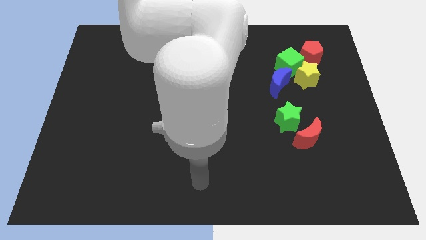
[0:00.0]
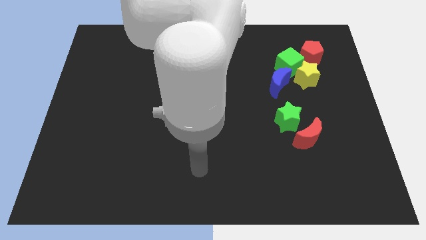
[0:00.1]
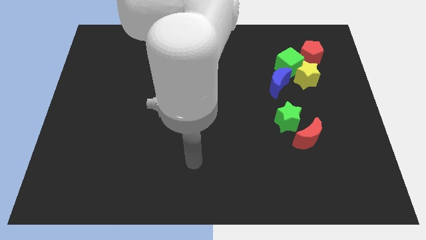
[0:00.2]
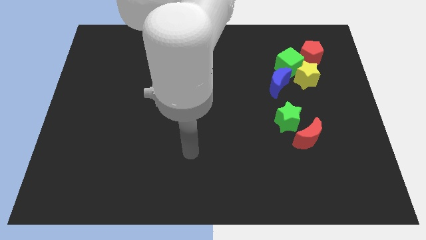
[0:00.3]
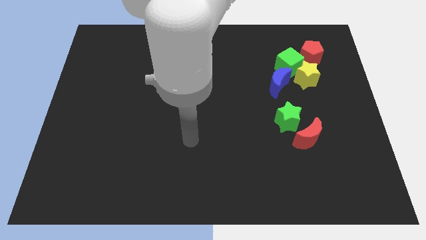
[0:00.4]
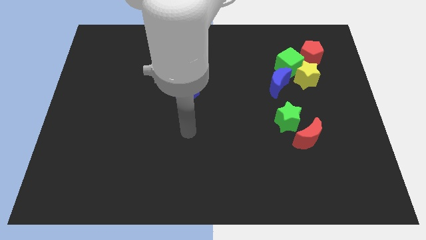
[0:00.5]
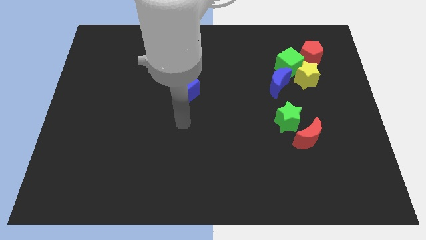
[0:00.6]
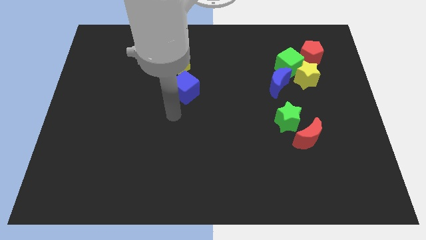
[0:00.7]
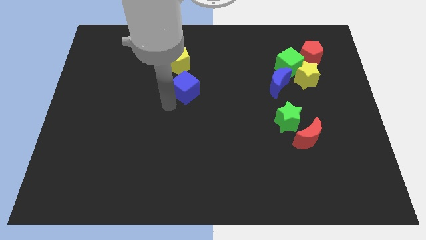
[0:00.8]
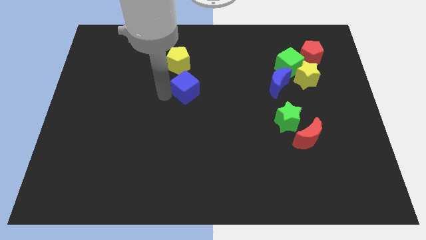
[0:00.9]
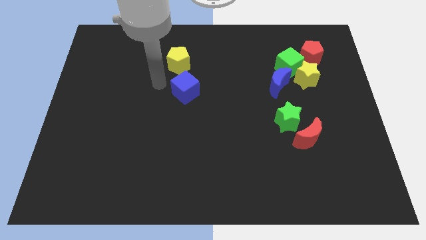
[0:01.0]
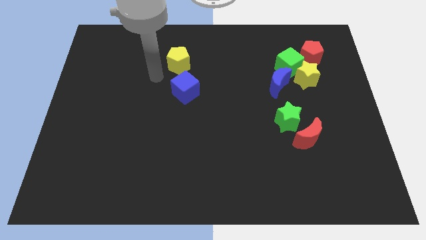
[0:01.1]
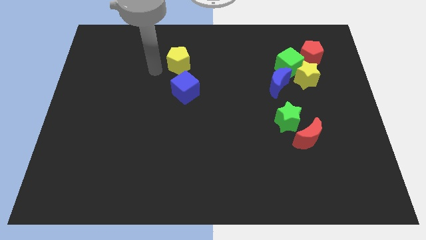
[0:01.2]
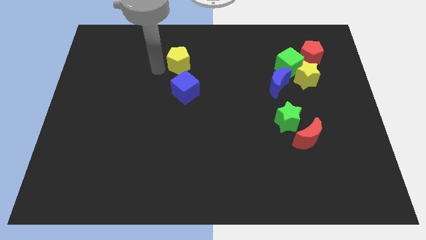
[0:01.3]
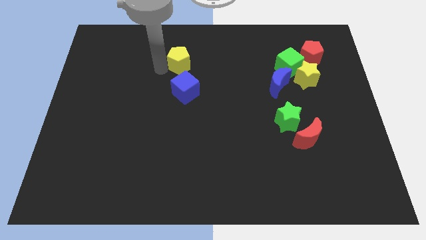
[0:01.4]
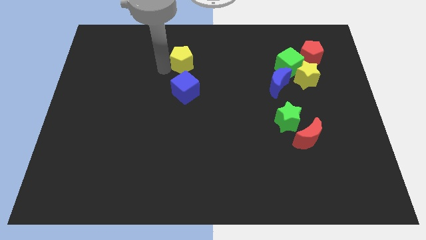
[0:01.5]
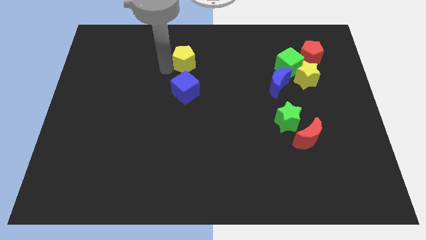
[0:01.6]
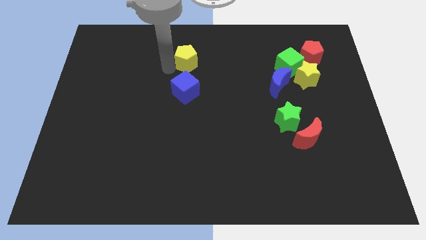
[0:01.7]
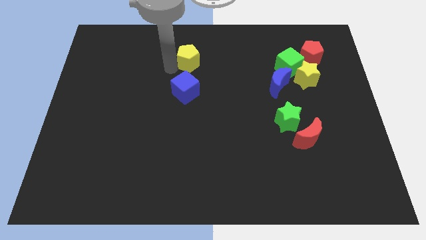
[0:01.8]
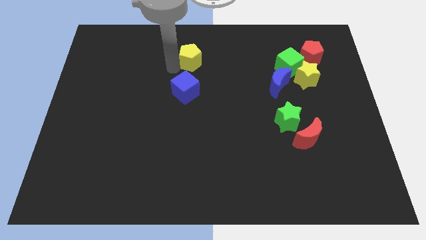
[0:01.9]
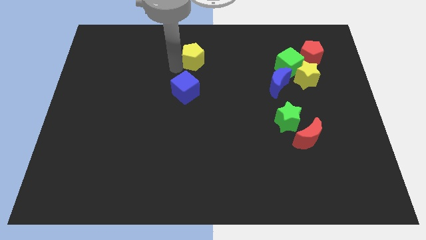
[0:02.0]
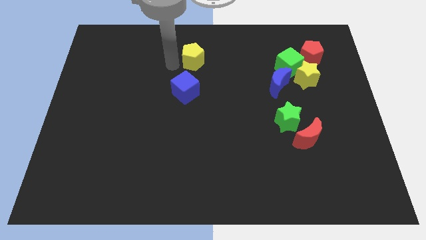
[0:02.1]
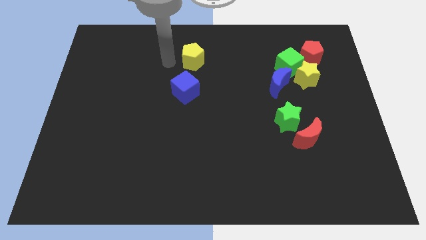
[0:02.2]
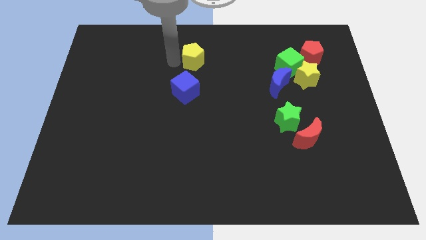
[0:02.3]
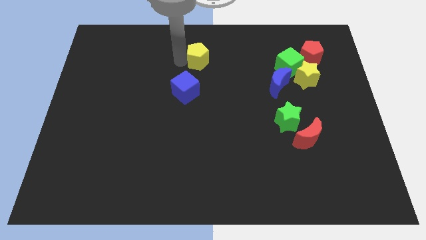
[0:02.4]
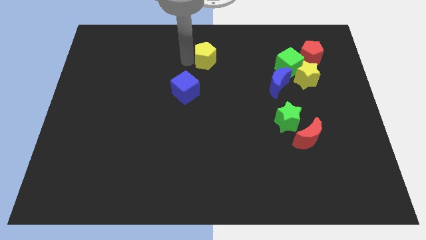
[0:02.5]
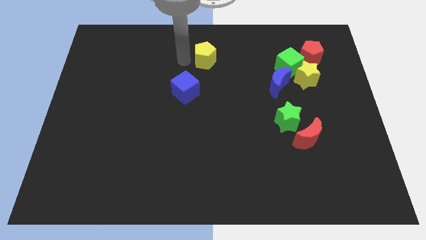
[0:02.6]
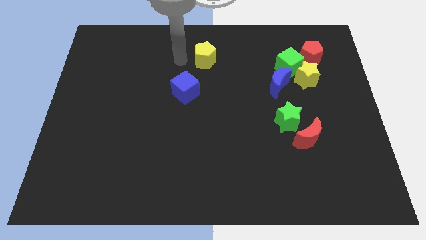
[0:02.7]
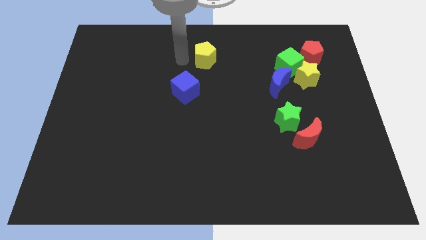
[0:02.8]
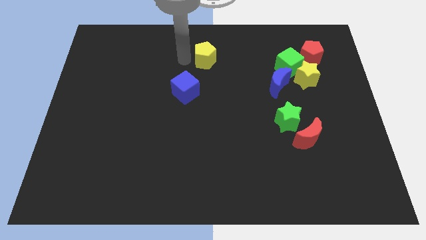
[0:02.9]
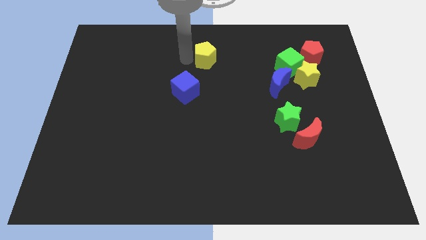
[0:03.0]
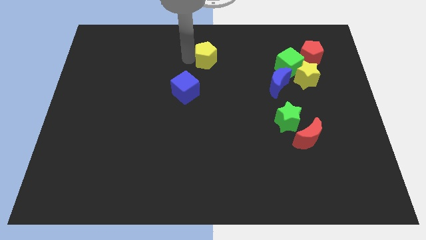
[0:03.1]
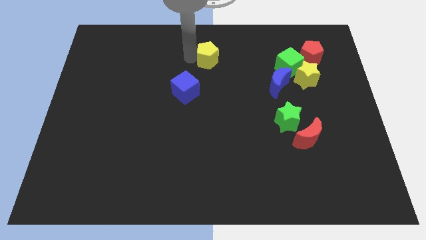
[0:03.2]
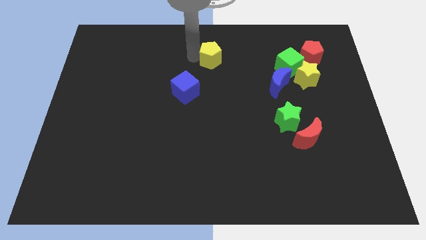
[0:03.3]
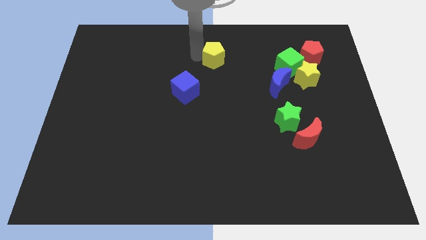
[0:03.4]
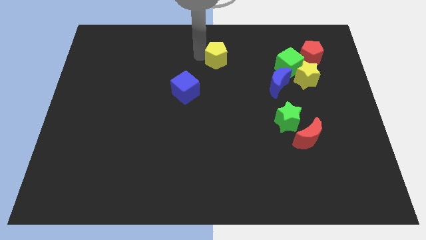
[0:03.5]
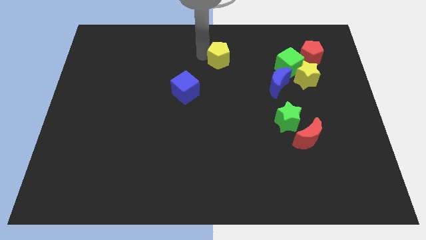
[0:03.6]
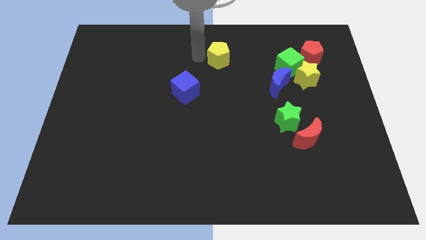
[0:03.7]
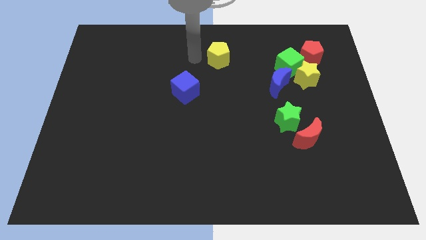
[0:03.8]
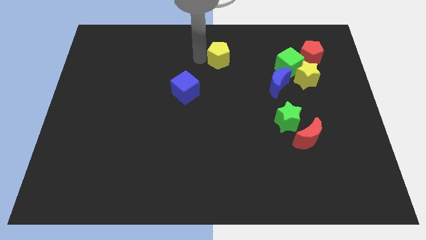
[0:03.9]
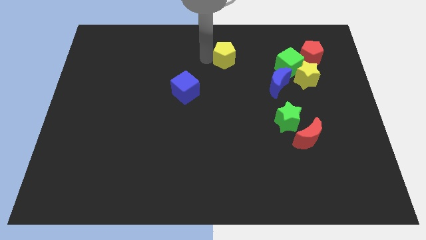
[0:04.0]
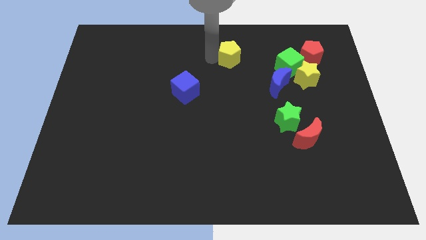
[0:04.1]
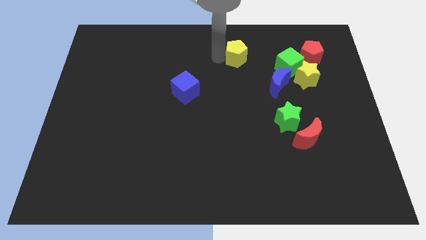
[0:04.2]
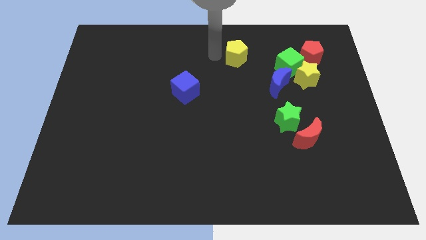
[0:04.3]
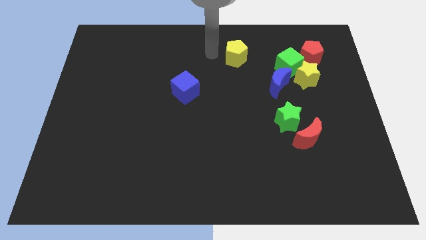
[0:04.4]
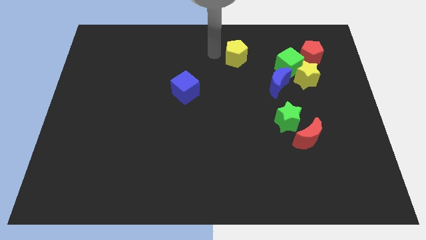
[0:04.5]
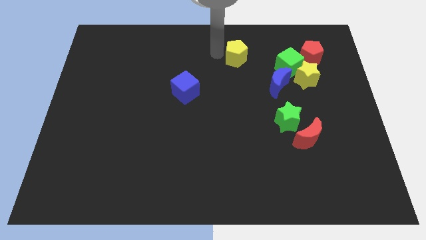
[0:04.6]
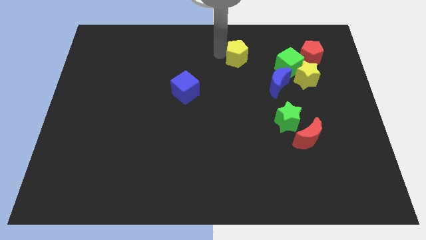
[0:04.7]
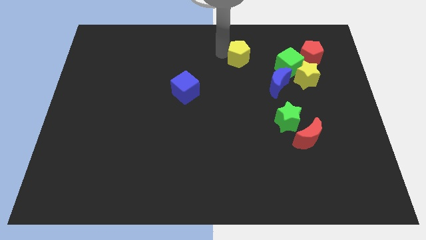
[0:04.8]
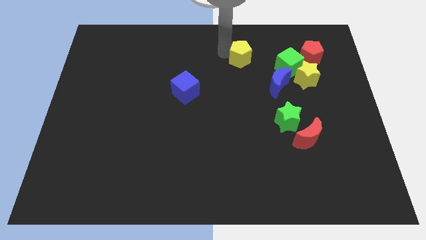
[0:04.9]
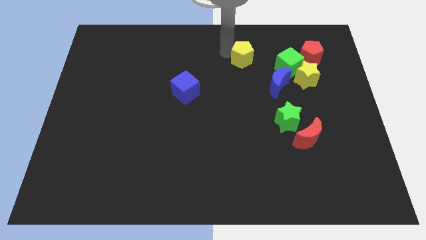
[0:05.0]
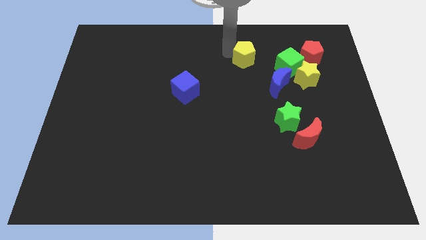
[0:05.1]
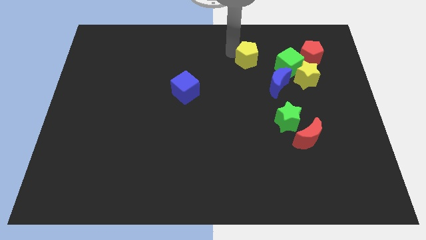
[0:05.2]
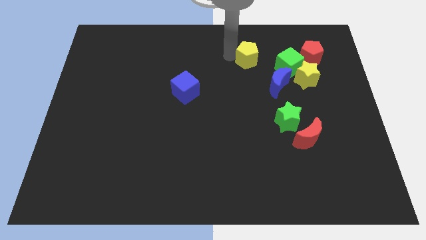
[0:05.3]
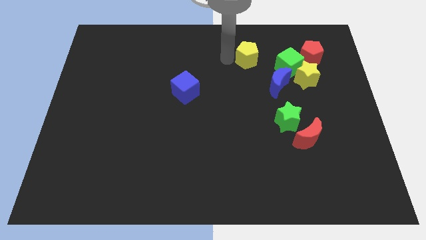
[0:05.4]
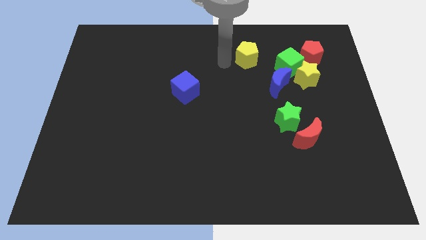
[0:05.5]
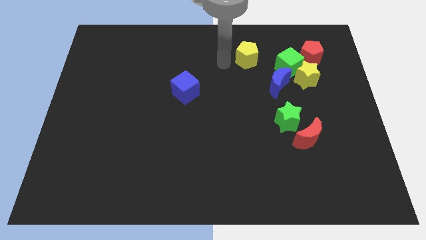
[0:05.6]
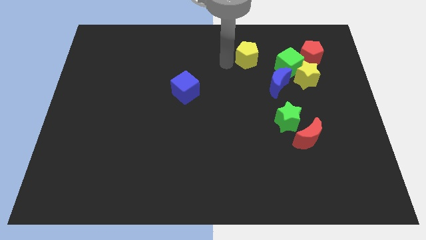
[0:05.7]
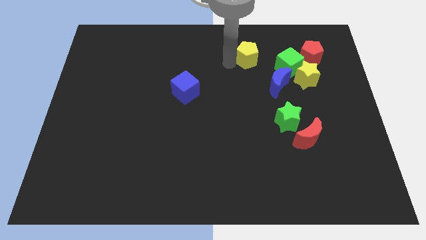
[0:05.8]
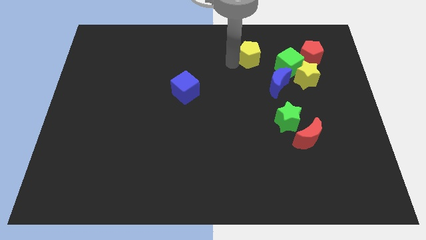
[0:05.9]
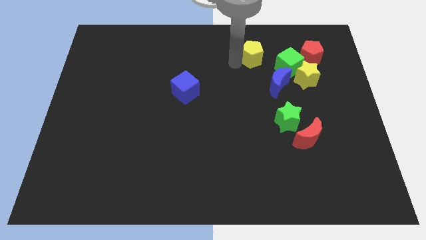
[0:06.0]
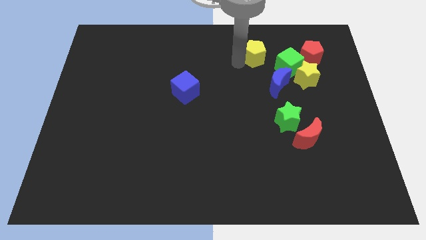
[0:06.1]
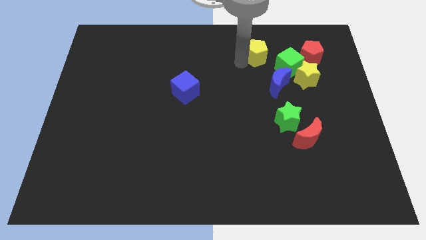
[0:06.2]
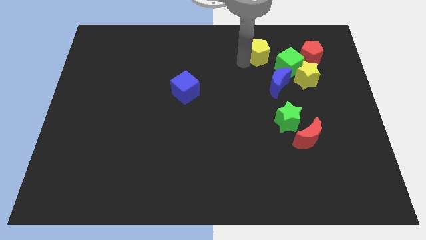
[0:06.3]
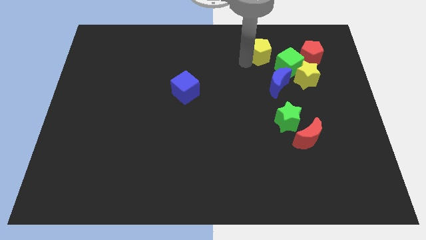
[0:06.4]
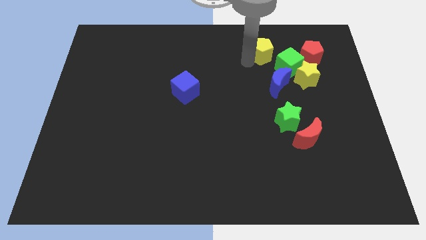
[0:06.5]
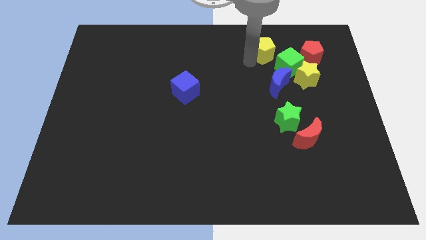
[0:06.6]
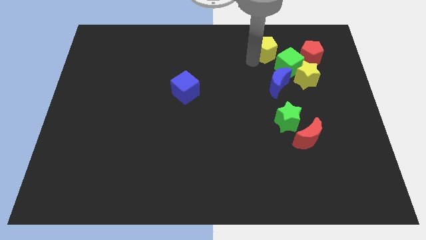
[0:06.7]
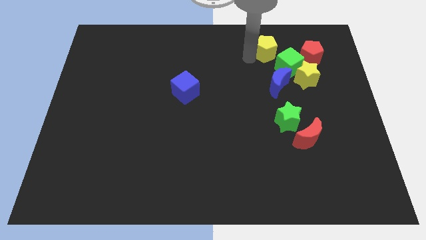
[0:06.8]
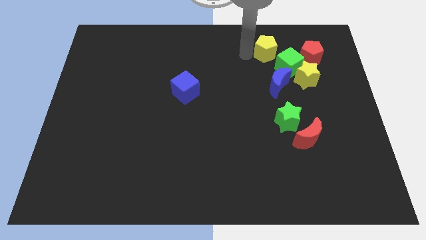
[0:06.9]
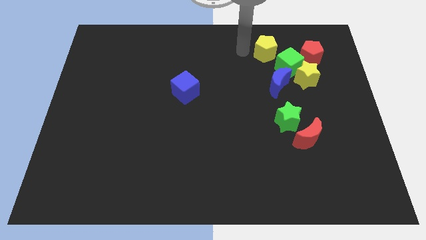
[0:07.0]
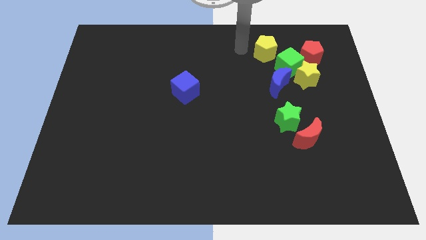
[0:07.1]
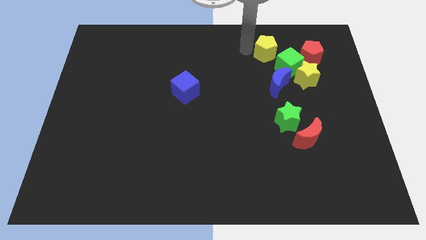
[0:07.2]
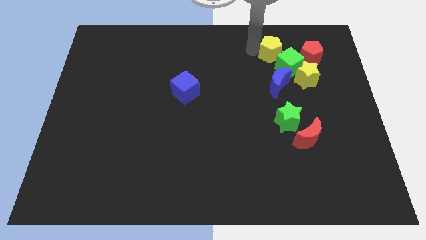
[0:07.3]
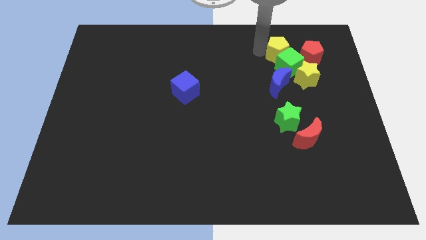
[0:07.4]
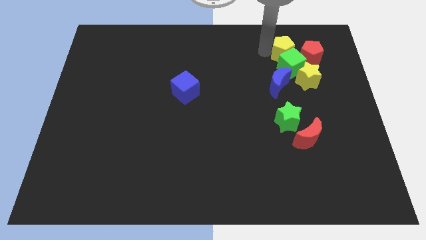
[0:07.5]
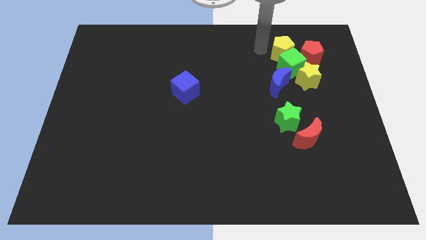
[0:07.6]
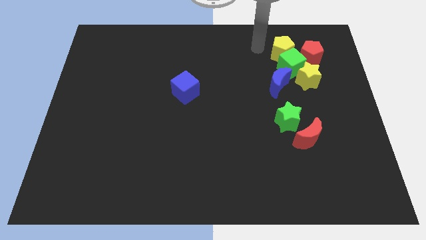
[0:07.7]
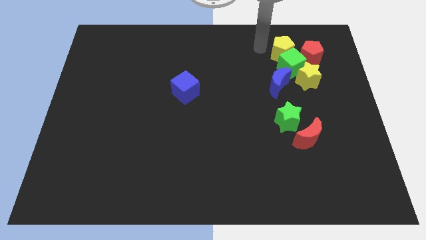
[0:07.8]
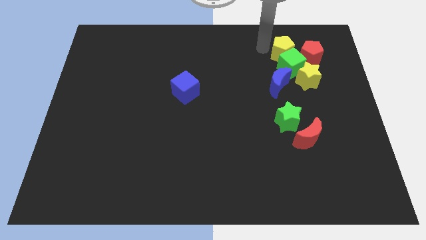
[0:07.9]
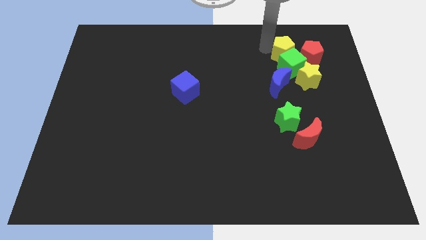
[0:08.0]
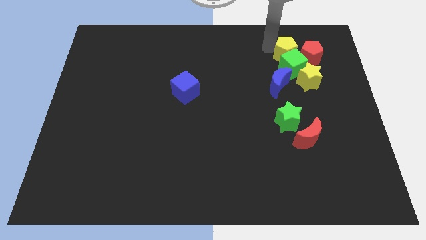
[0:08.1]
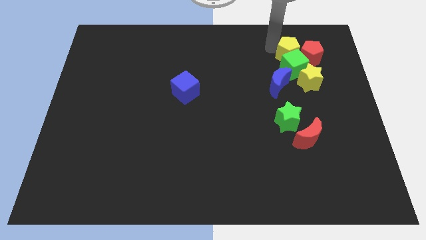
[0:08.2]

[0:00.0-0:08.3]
slide the yellow pentagon towards the red pentagon
